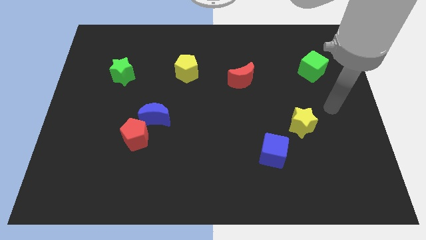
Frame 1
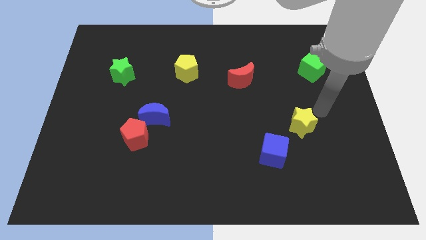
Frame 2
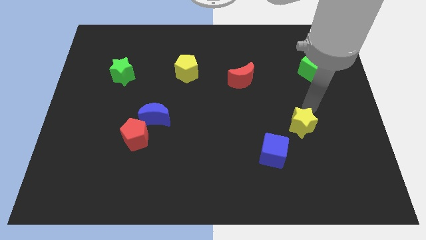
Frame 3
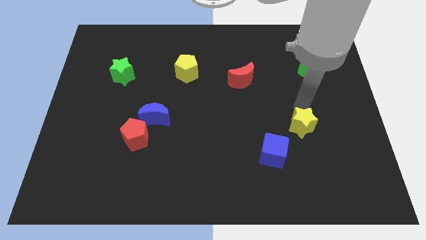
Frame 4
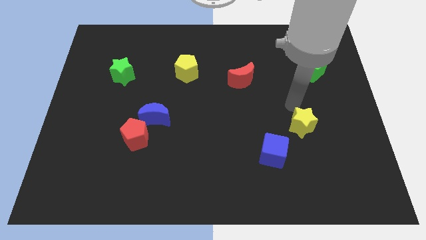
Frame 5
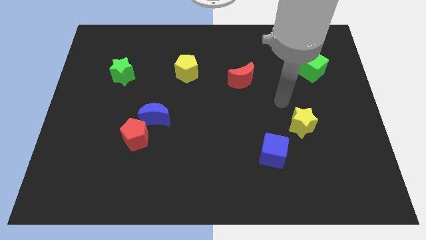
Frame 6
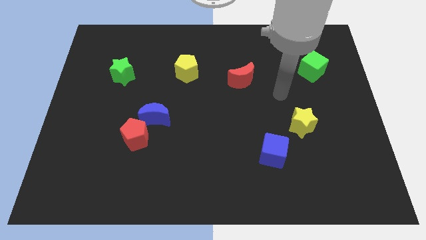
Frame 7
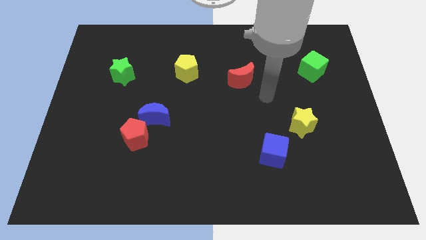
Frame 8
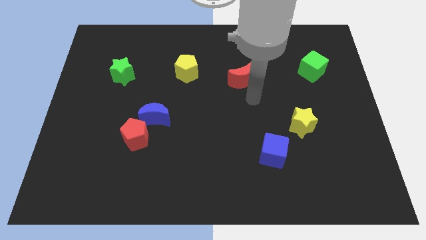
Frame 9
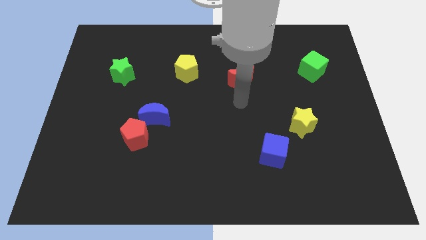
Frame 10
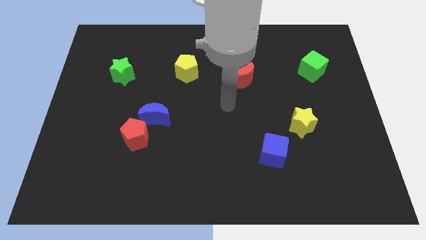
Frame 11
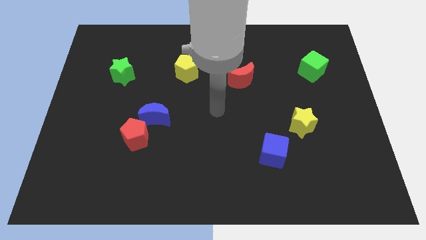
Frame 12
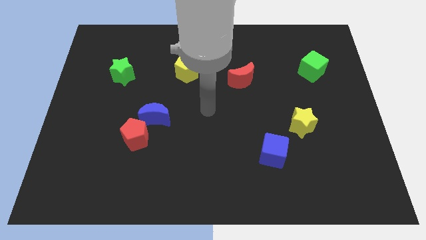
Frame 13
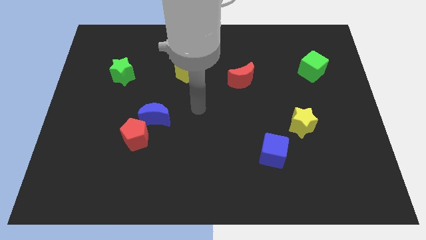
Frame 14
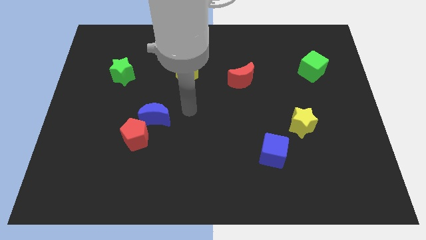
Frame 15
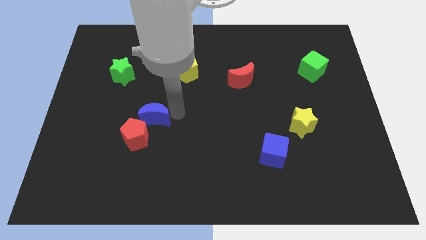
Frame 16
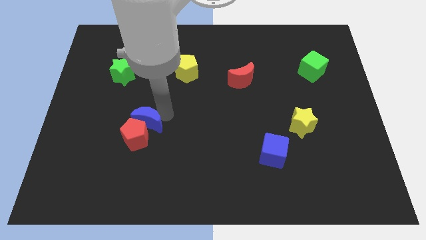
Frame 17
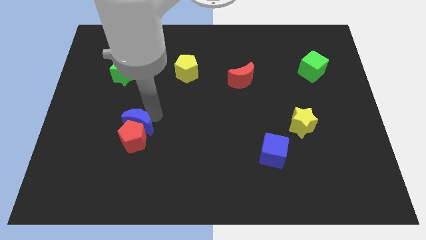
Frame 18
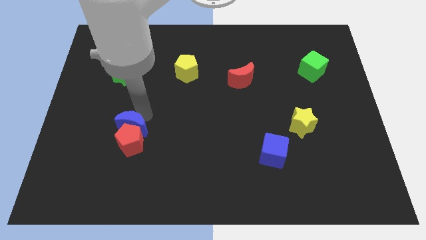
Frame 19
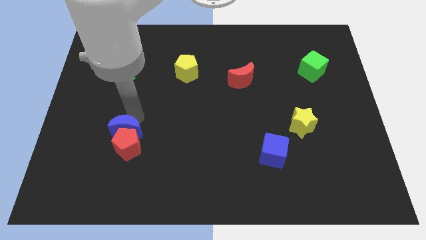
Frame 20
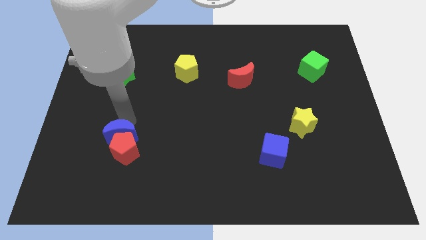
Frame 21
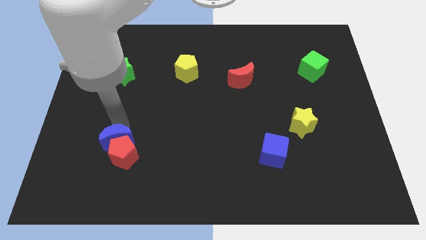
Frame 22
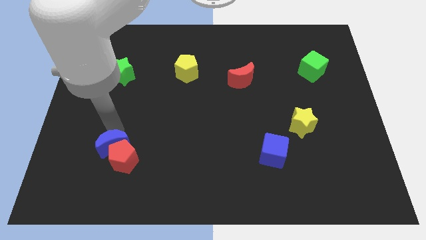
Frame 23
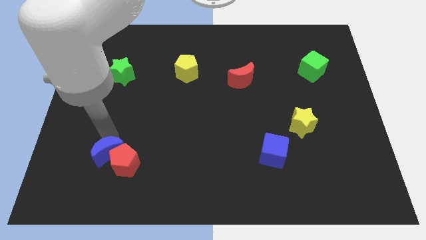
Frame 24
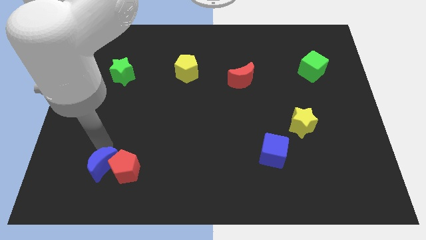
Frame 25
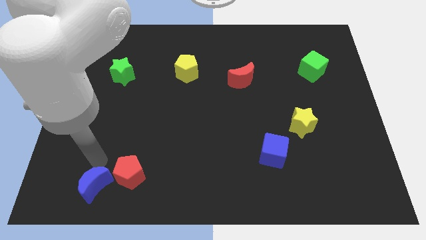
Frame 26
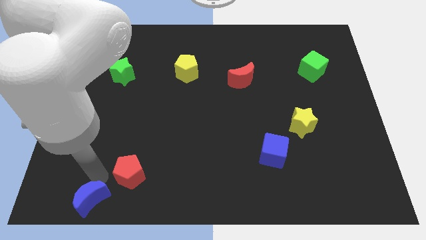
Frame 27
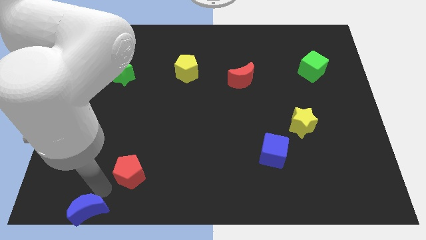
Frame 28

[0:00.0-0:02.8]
pull the red pentagon apart from the blue moon

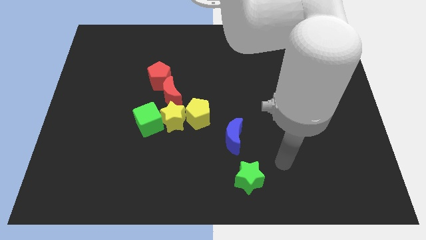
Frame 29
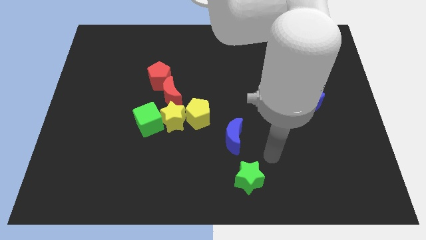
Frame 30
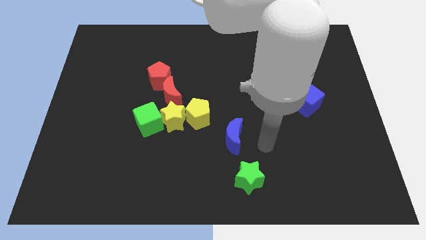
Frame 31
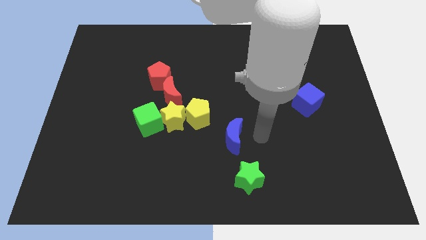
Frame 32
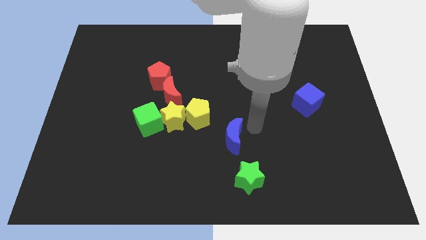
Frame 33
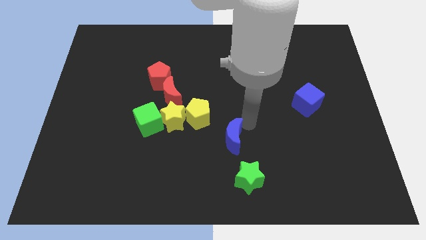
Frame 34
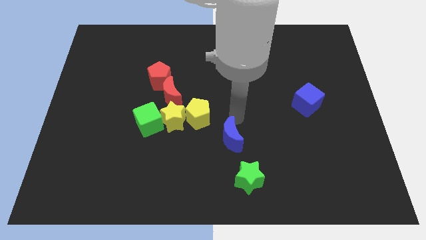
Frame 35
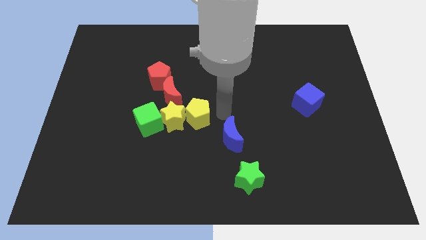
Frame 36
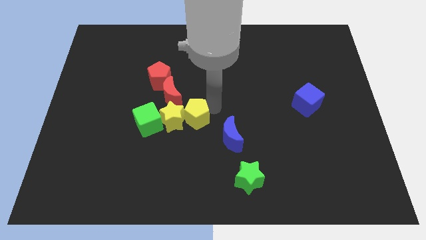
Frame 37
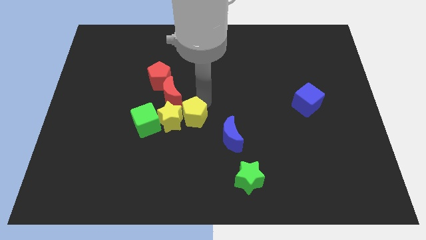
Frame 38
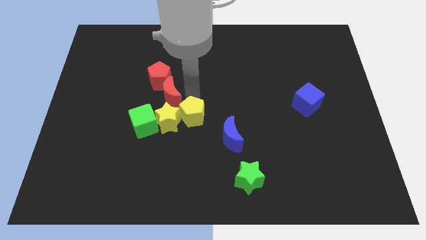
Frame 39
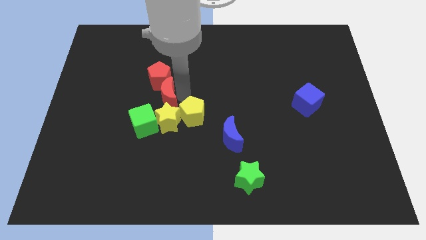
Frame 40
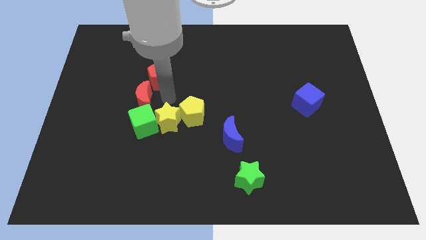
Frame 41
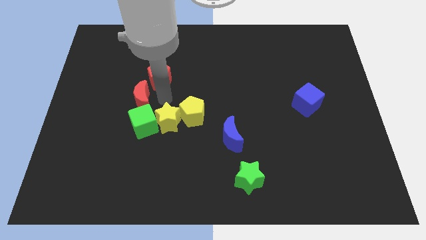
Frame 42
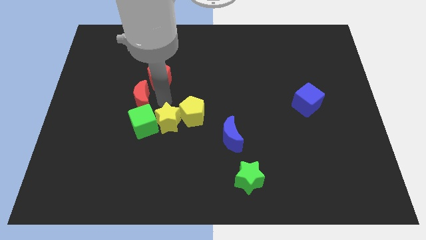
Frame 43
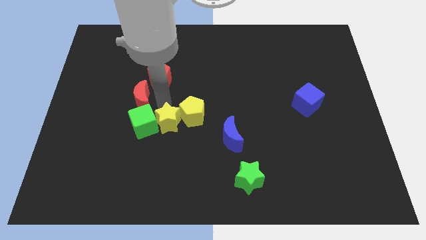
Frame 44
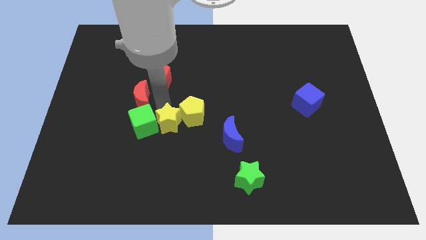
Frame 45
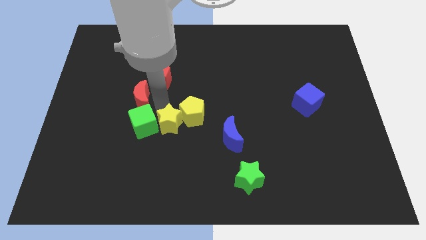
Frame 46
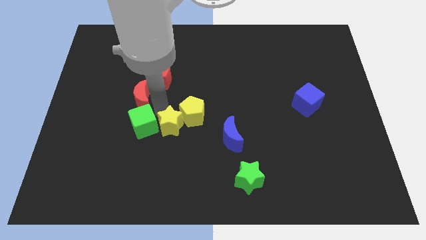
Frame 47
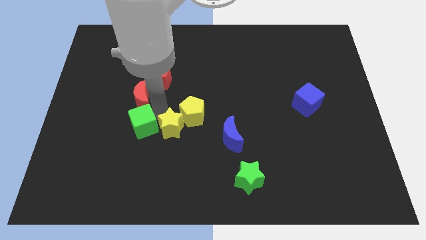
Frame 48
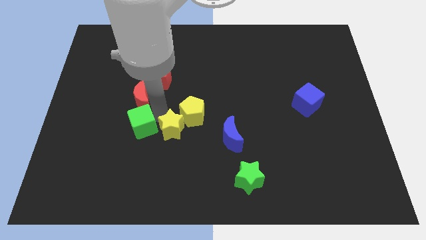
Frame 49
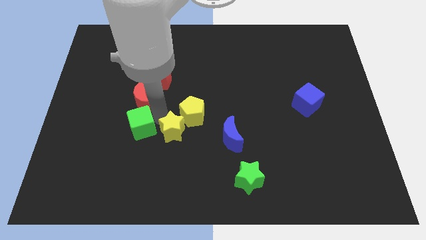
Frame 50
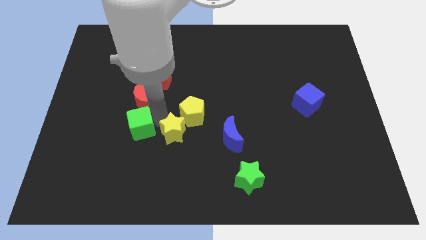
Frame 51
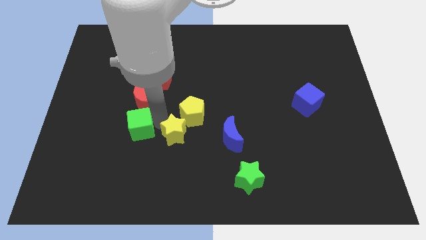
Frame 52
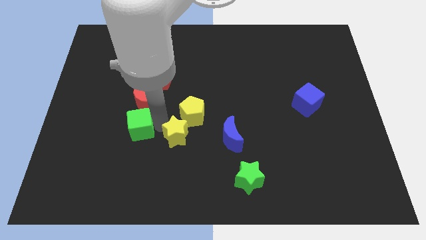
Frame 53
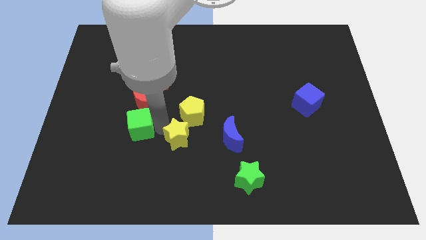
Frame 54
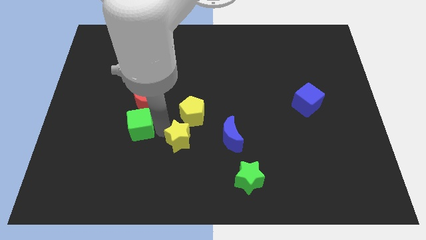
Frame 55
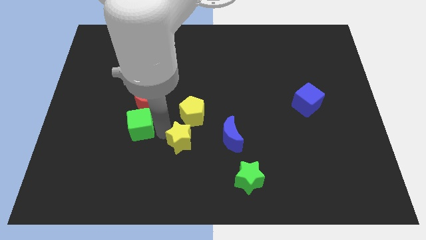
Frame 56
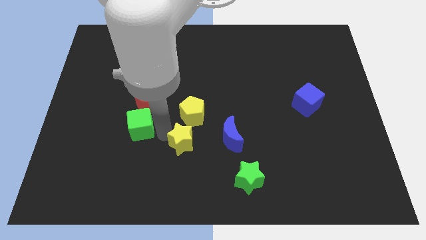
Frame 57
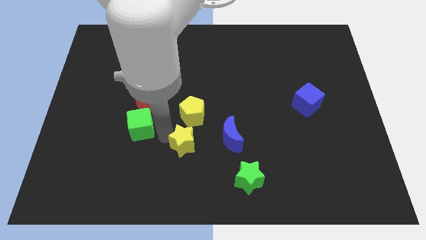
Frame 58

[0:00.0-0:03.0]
pull the yellow star apart from the green cube, yellow pentagon, and red moon

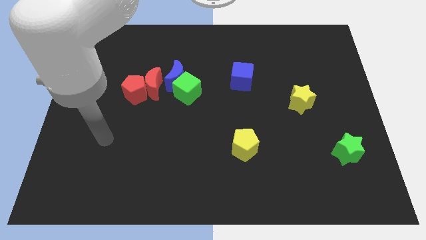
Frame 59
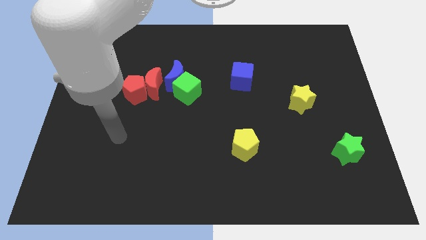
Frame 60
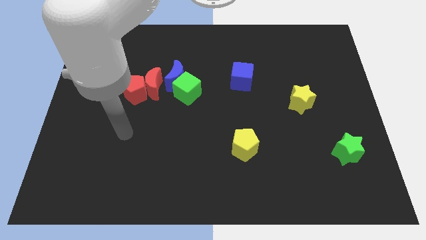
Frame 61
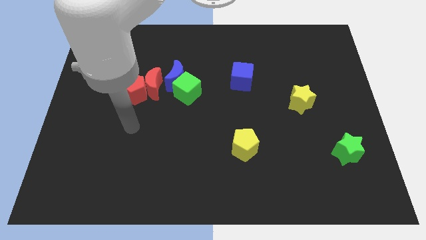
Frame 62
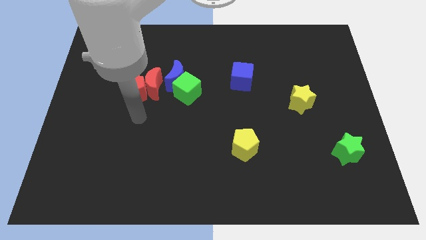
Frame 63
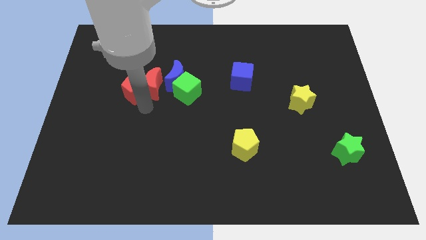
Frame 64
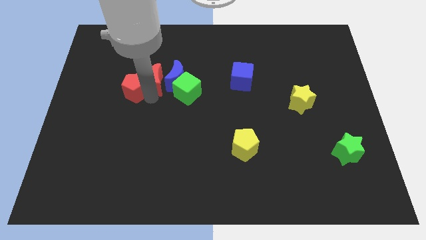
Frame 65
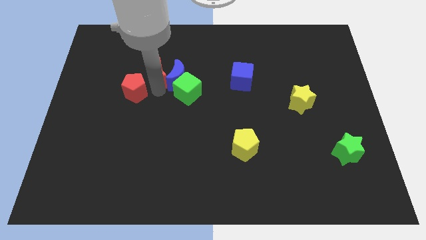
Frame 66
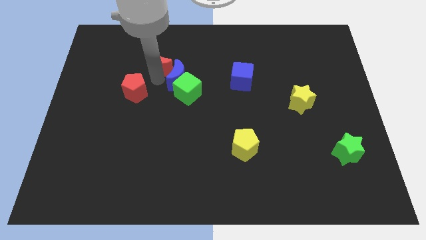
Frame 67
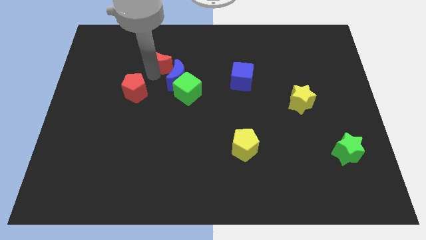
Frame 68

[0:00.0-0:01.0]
pull the red pentagon apart from the red moon

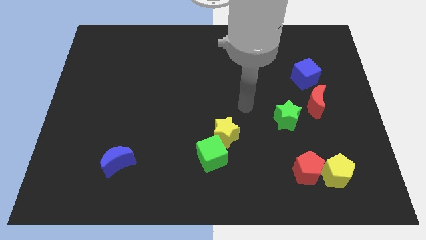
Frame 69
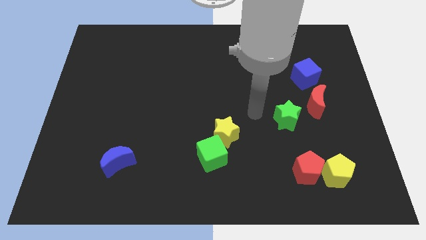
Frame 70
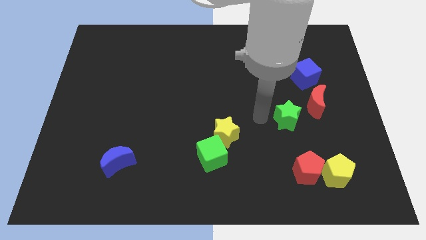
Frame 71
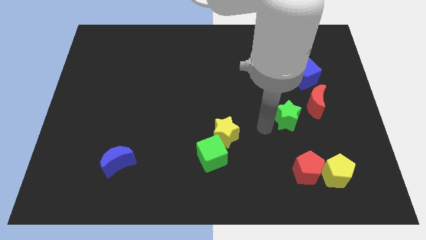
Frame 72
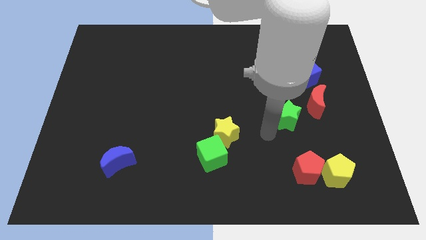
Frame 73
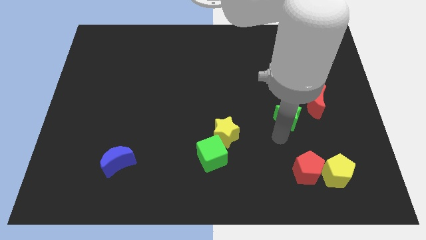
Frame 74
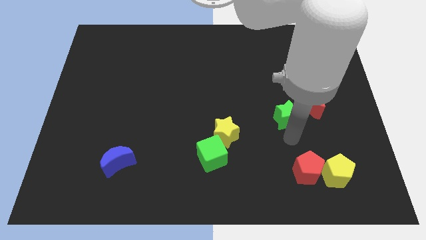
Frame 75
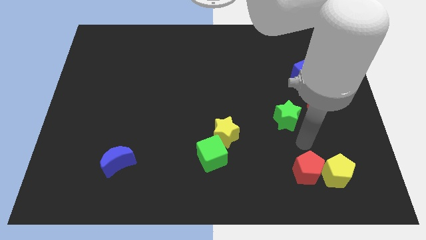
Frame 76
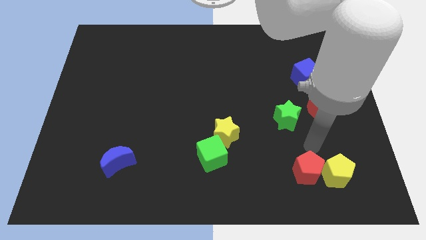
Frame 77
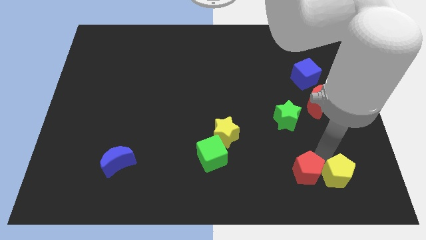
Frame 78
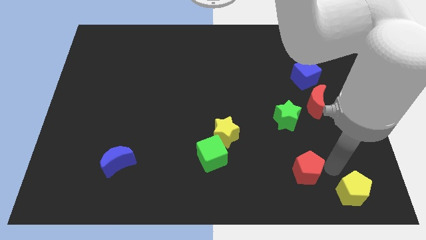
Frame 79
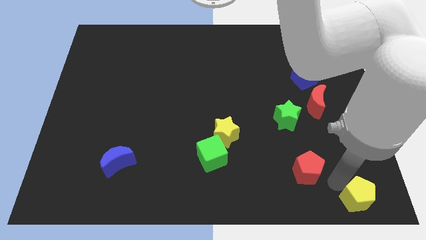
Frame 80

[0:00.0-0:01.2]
separate the red pentagon from the yellow pentagon

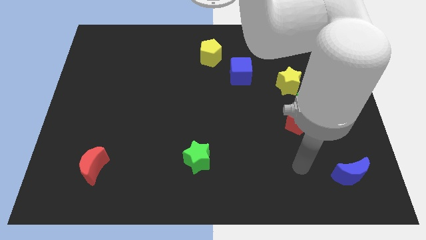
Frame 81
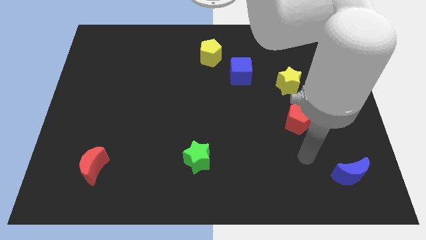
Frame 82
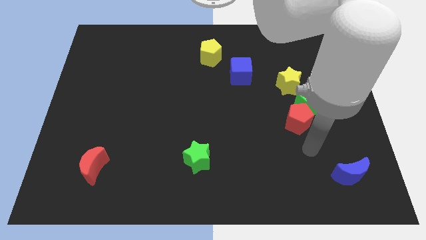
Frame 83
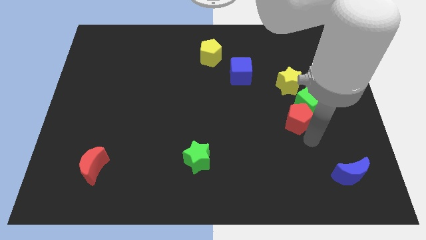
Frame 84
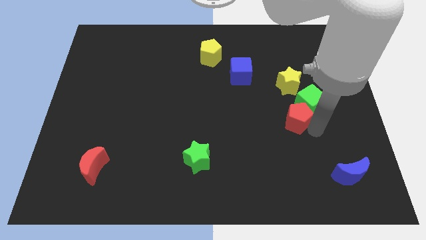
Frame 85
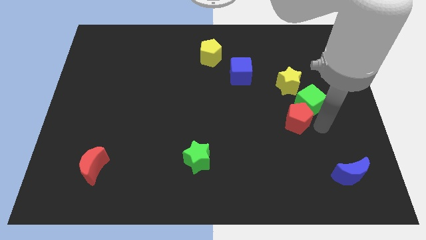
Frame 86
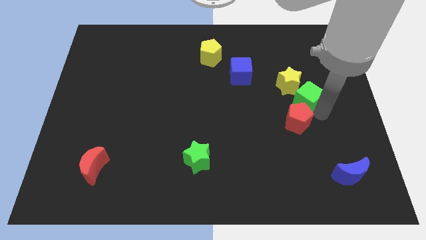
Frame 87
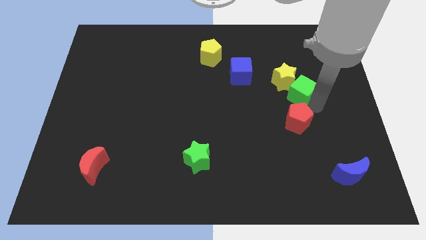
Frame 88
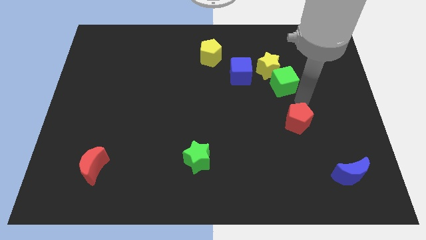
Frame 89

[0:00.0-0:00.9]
separate the red pentagon from the green cube

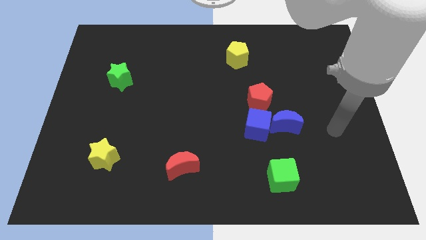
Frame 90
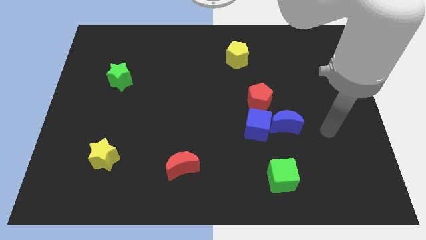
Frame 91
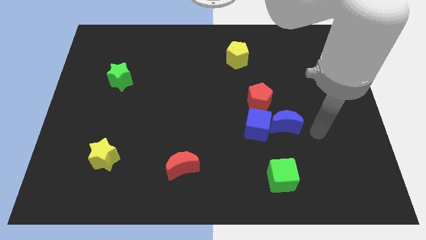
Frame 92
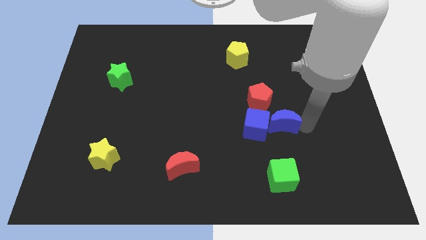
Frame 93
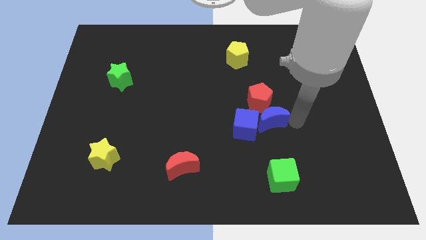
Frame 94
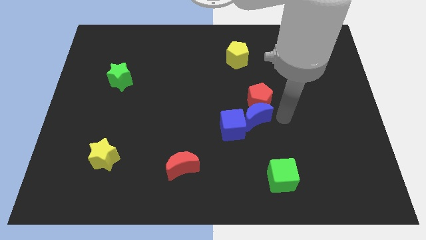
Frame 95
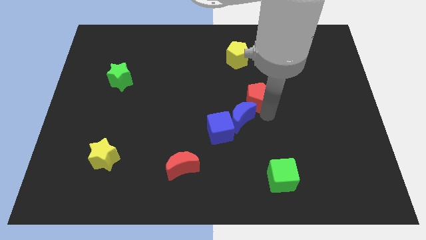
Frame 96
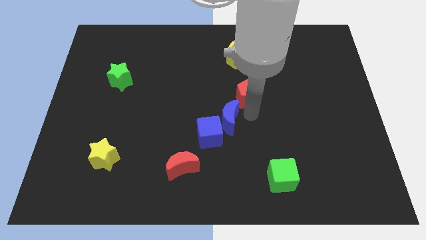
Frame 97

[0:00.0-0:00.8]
pull the blue cube apart from the blue moon and red pentagon
